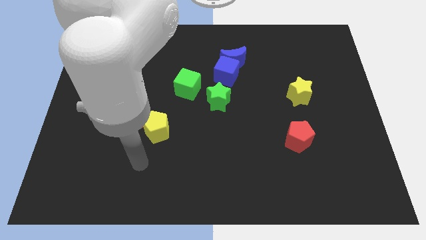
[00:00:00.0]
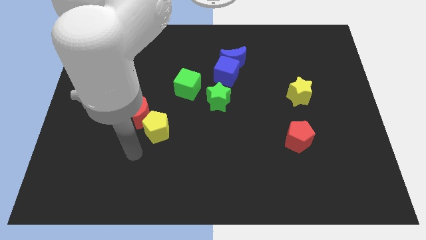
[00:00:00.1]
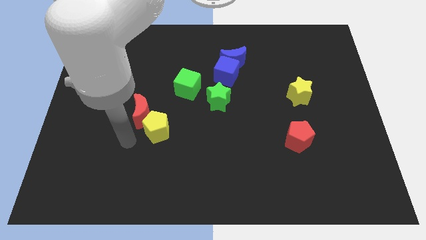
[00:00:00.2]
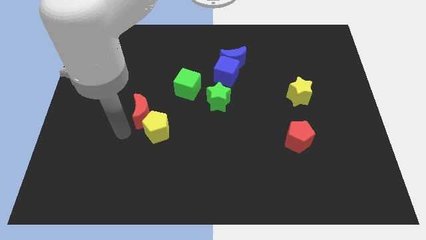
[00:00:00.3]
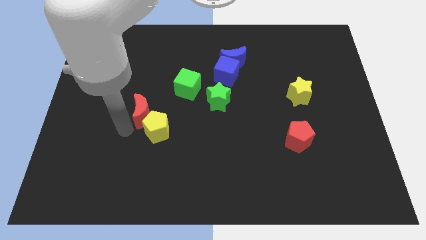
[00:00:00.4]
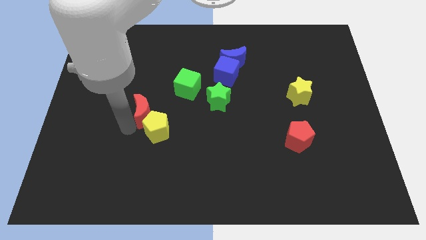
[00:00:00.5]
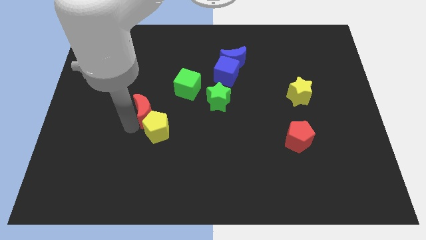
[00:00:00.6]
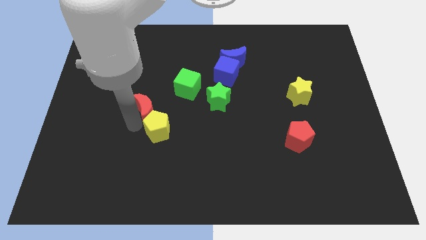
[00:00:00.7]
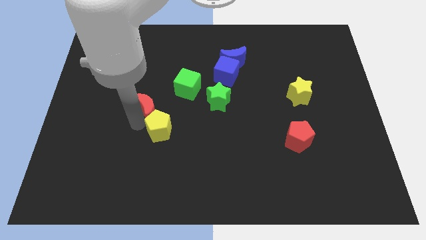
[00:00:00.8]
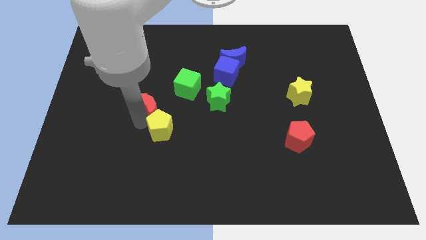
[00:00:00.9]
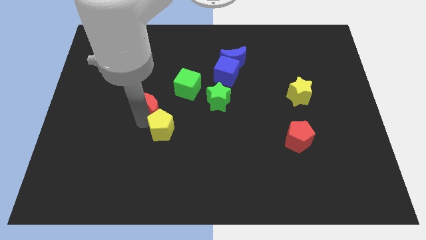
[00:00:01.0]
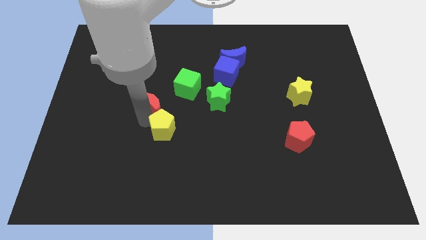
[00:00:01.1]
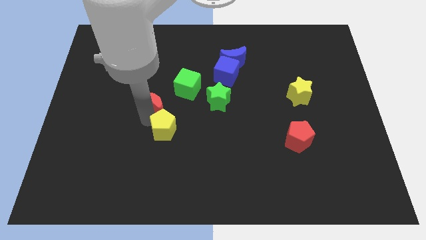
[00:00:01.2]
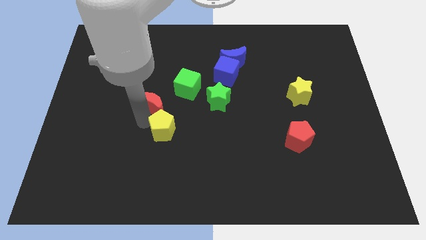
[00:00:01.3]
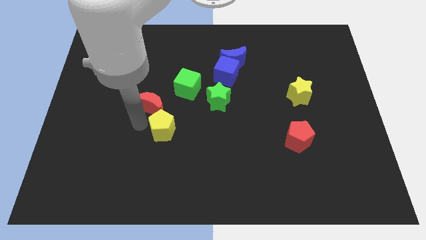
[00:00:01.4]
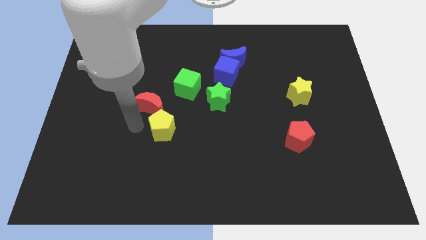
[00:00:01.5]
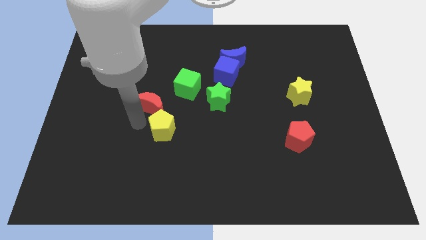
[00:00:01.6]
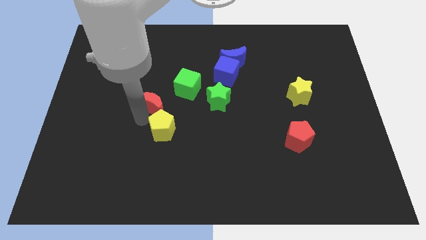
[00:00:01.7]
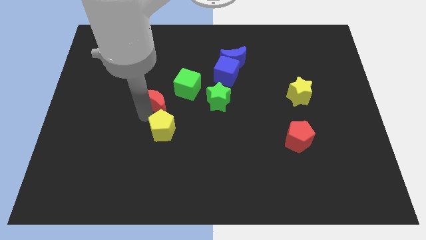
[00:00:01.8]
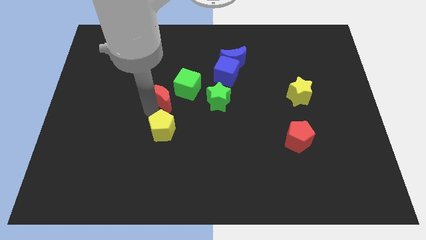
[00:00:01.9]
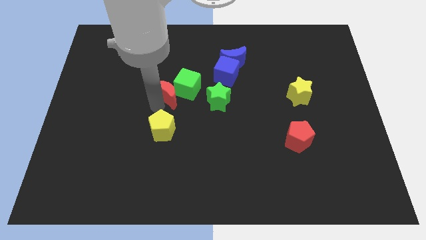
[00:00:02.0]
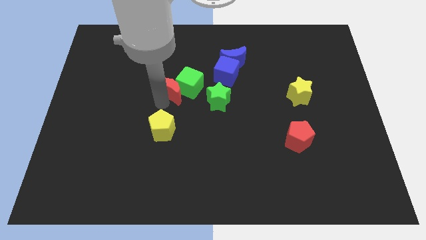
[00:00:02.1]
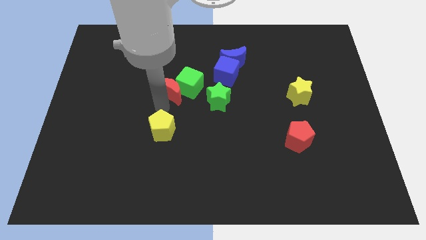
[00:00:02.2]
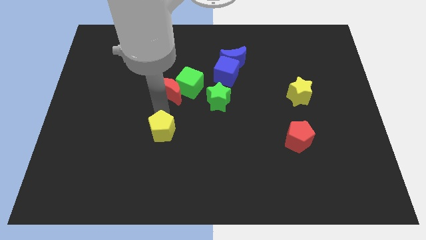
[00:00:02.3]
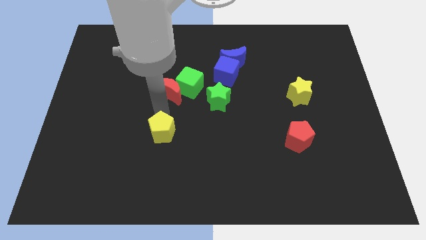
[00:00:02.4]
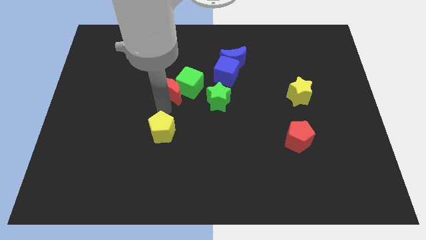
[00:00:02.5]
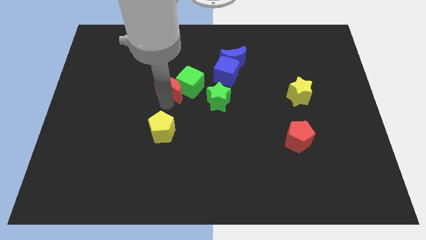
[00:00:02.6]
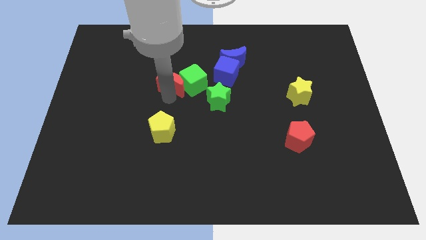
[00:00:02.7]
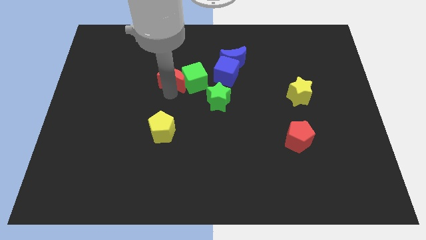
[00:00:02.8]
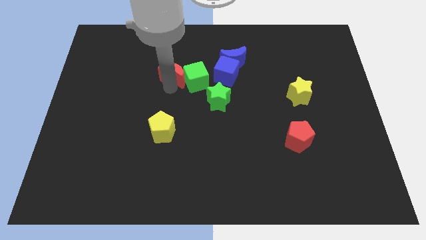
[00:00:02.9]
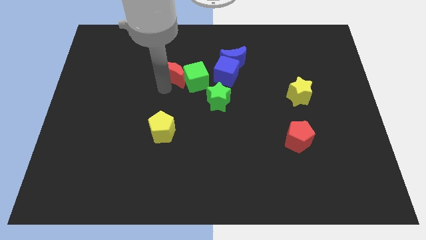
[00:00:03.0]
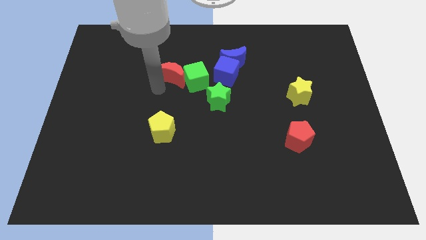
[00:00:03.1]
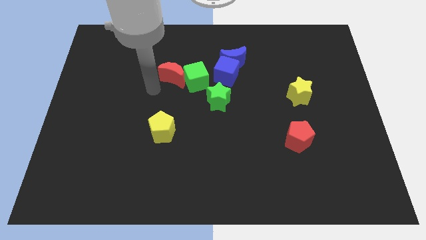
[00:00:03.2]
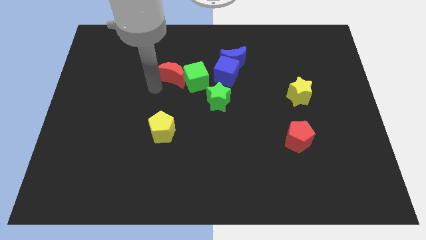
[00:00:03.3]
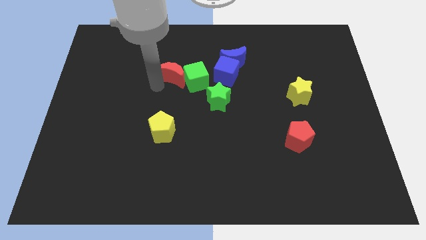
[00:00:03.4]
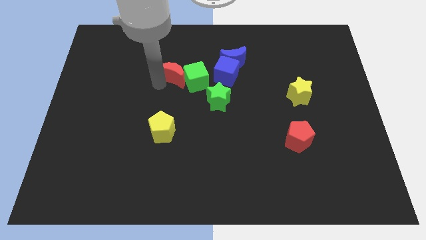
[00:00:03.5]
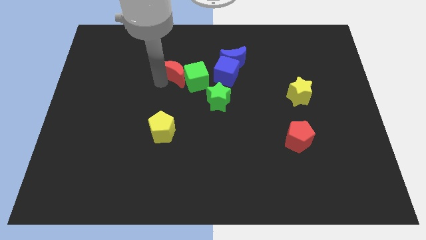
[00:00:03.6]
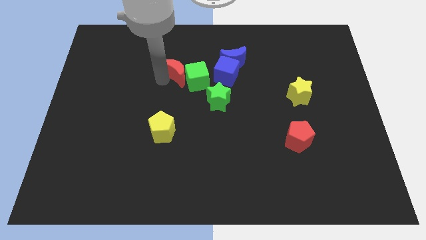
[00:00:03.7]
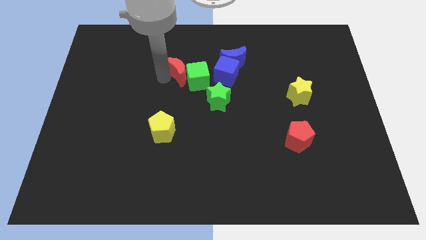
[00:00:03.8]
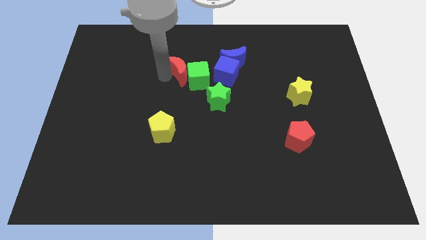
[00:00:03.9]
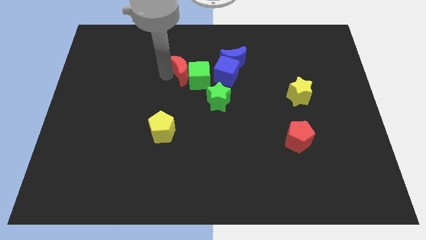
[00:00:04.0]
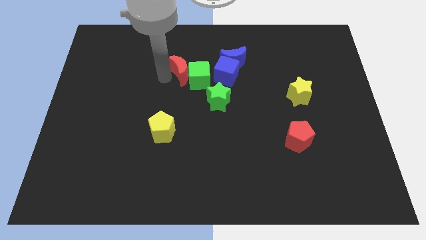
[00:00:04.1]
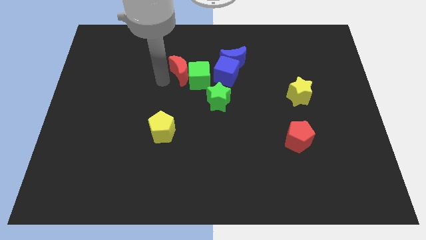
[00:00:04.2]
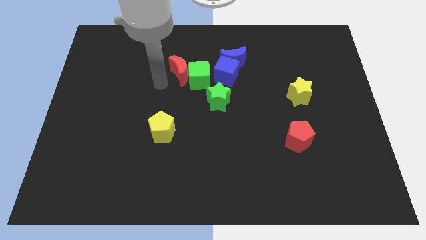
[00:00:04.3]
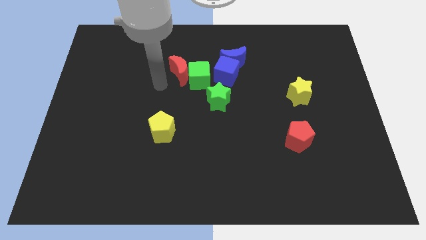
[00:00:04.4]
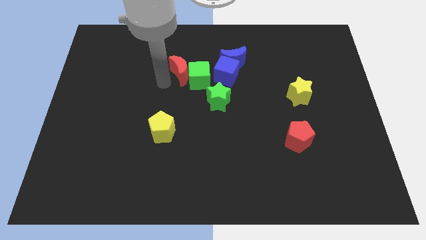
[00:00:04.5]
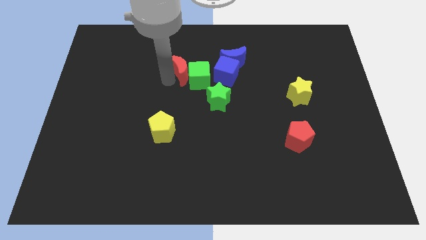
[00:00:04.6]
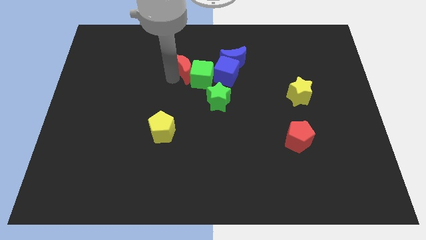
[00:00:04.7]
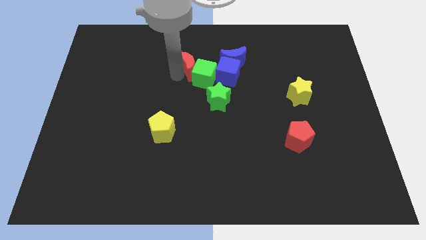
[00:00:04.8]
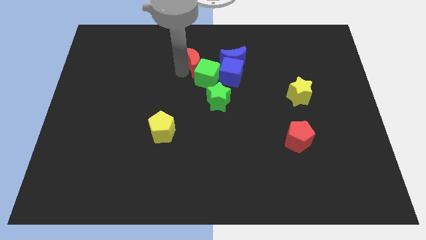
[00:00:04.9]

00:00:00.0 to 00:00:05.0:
move the red moon to the top left side of the blue cube

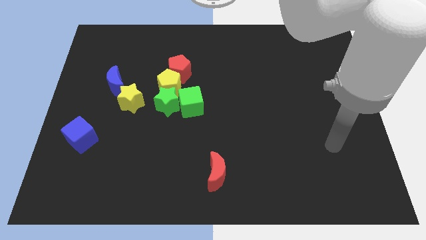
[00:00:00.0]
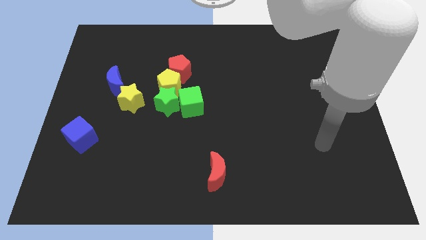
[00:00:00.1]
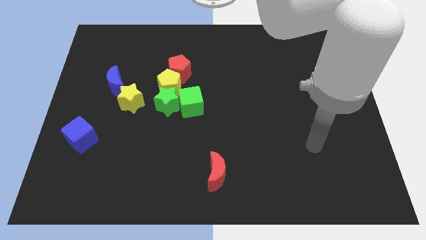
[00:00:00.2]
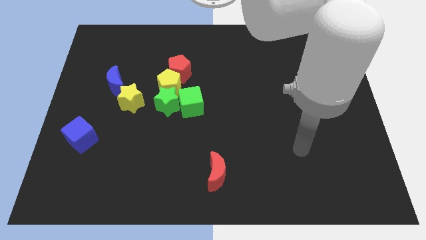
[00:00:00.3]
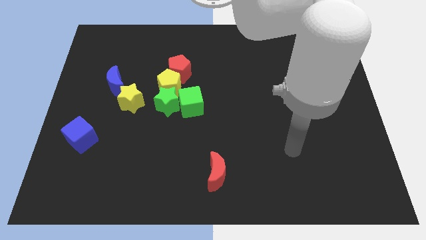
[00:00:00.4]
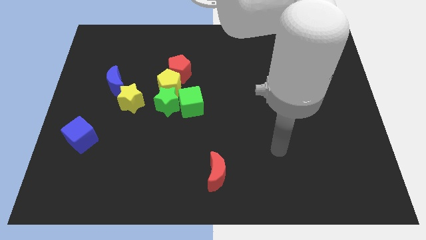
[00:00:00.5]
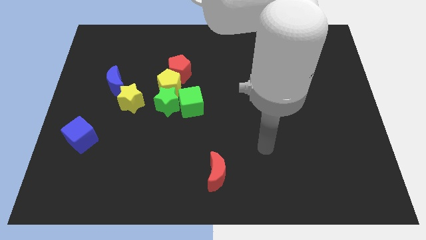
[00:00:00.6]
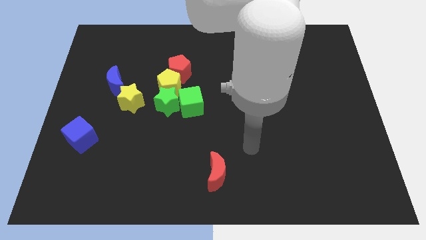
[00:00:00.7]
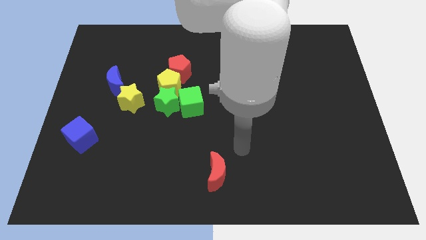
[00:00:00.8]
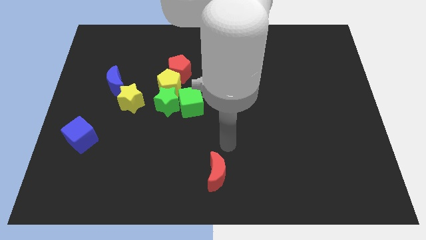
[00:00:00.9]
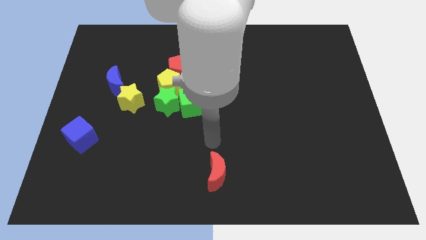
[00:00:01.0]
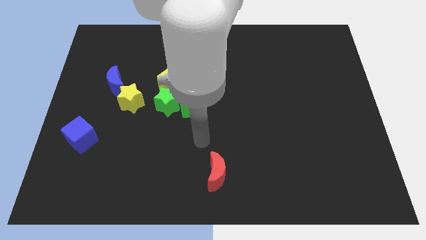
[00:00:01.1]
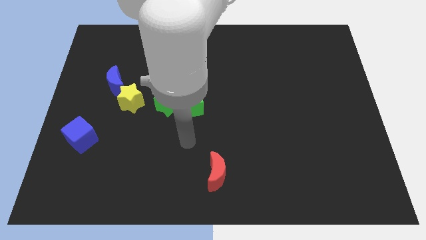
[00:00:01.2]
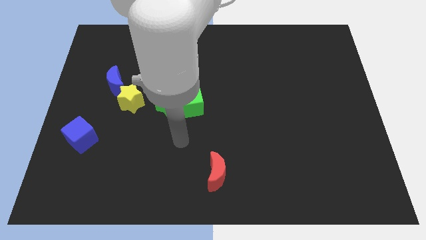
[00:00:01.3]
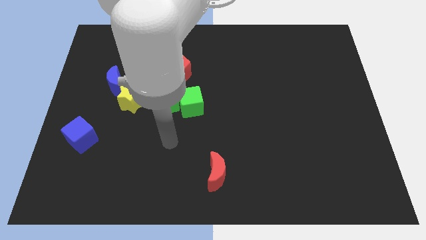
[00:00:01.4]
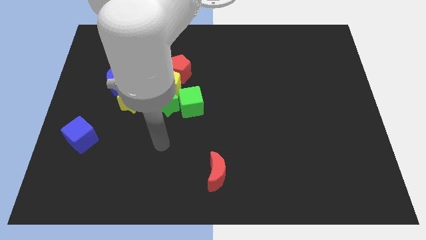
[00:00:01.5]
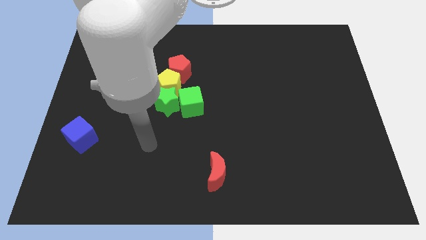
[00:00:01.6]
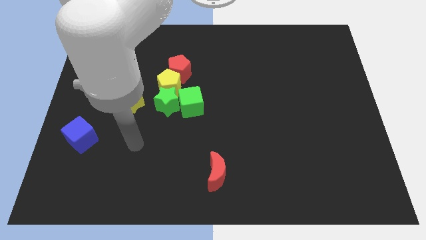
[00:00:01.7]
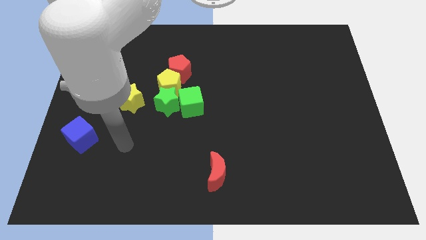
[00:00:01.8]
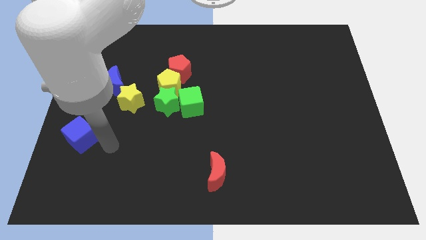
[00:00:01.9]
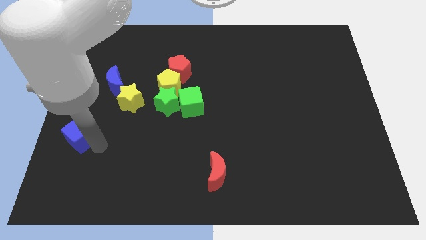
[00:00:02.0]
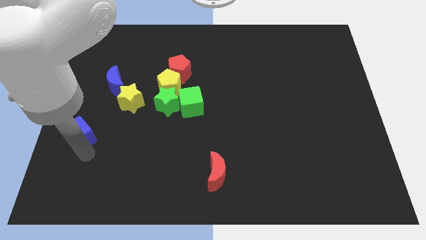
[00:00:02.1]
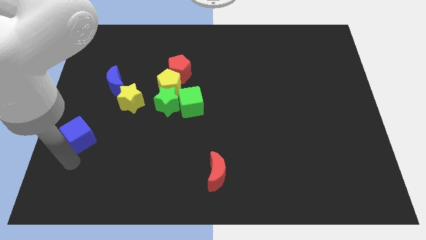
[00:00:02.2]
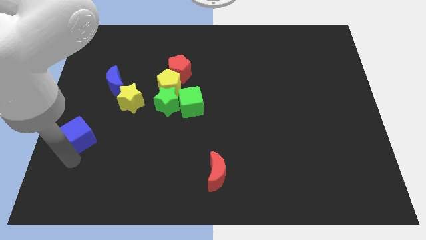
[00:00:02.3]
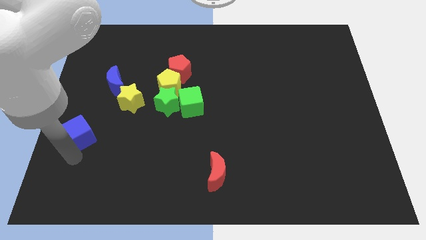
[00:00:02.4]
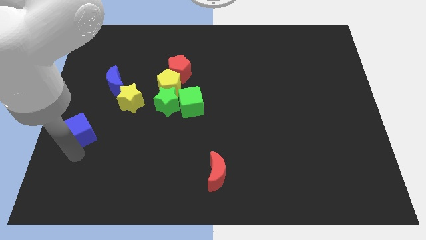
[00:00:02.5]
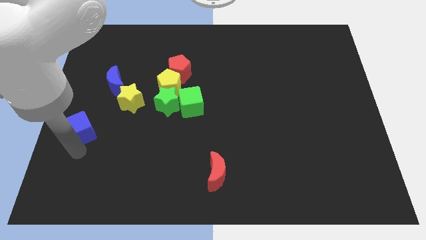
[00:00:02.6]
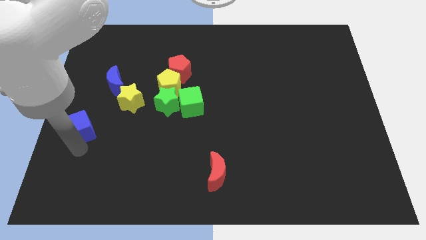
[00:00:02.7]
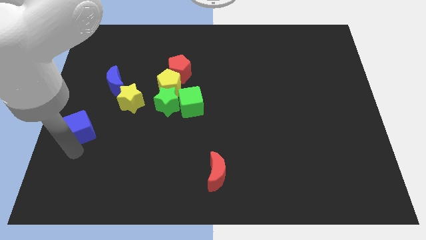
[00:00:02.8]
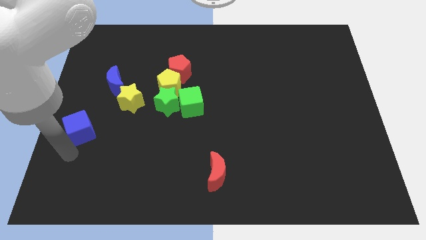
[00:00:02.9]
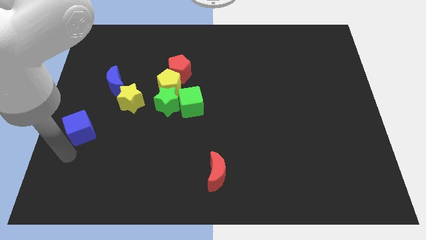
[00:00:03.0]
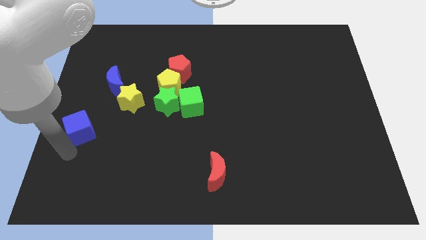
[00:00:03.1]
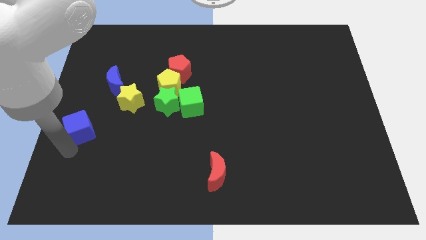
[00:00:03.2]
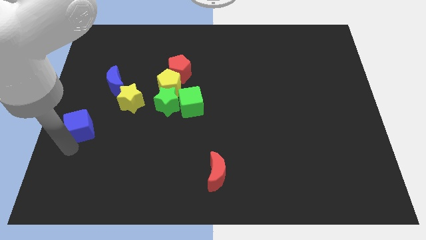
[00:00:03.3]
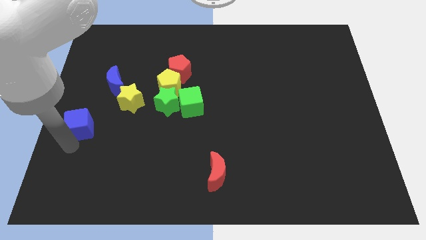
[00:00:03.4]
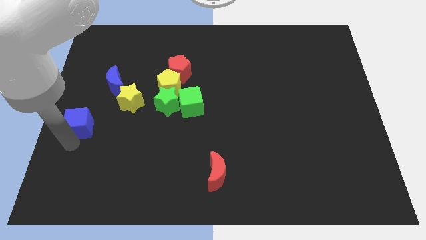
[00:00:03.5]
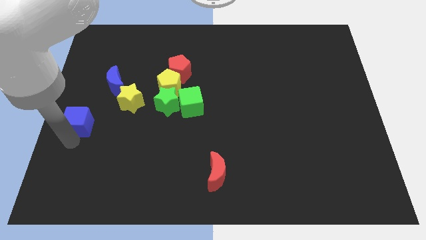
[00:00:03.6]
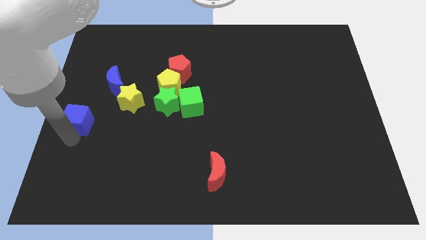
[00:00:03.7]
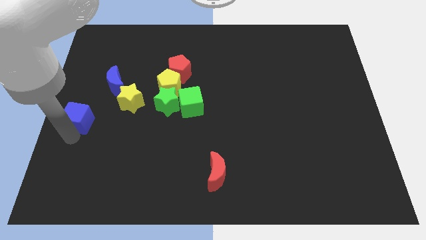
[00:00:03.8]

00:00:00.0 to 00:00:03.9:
put the blue cube diagonally down and to the left of the blue moon
